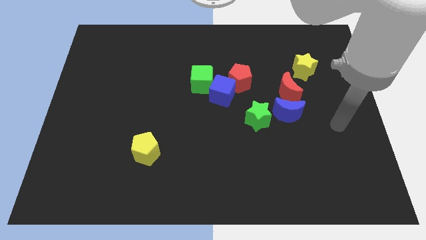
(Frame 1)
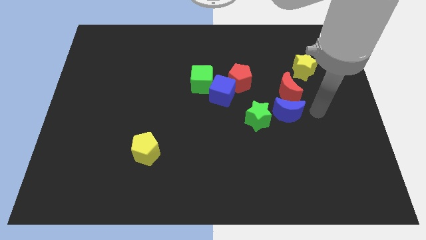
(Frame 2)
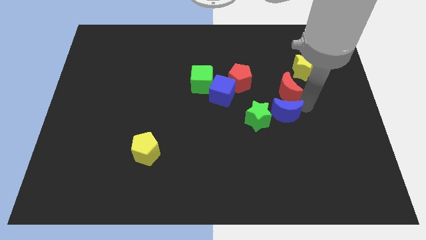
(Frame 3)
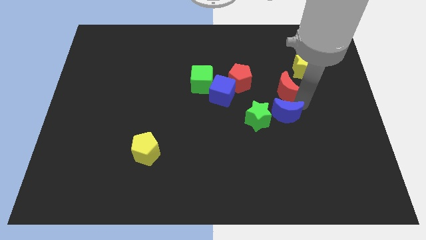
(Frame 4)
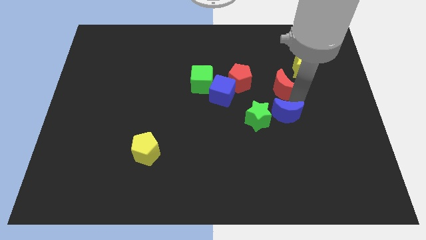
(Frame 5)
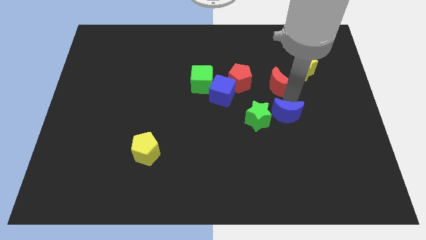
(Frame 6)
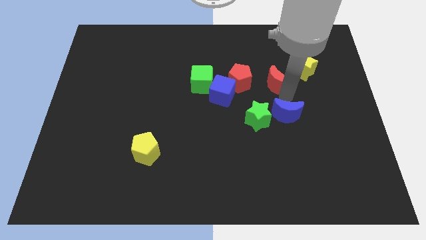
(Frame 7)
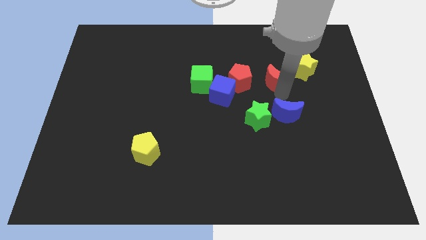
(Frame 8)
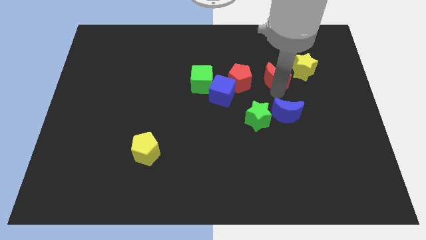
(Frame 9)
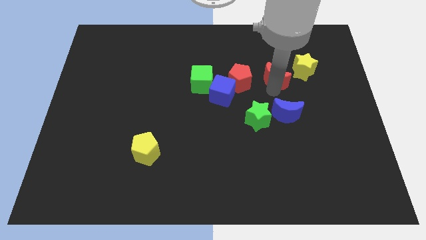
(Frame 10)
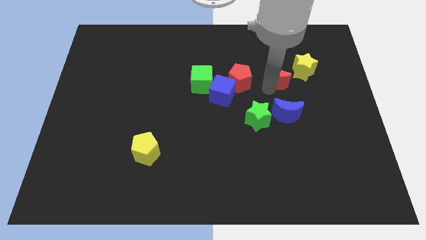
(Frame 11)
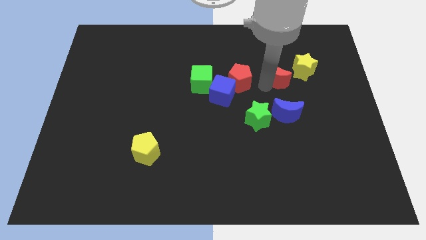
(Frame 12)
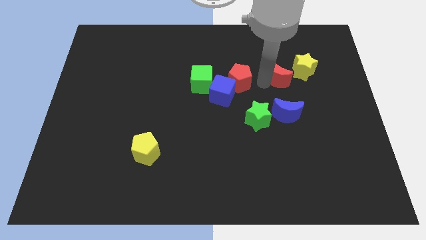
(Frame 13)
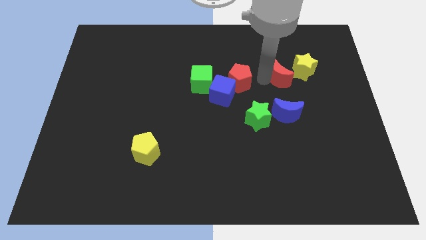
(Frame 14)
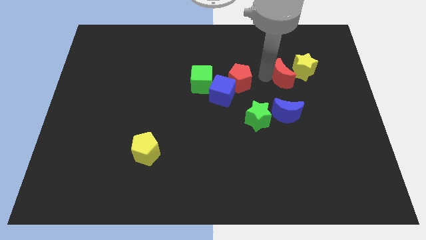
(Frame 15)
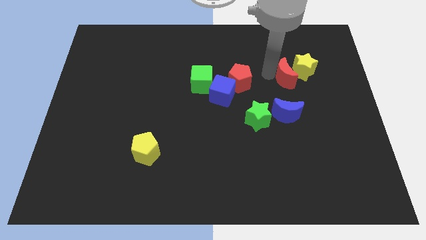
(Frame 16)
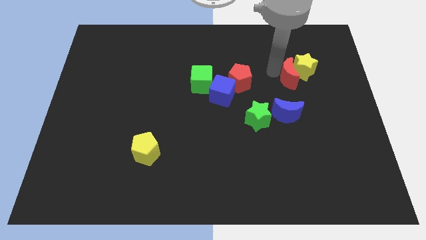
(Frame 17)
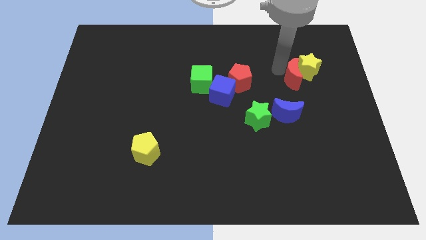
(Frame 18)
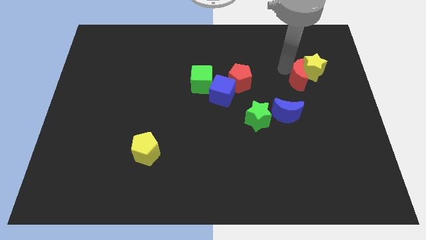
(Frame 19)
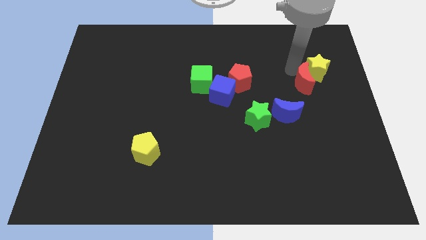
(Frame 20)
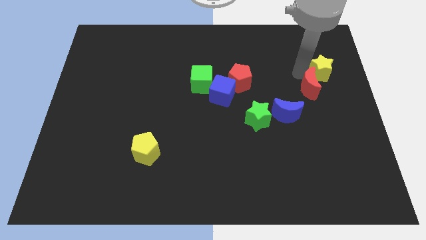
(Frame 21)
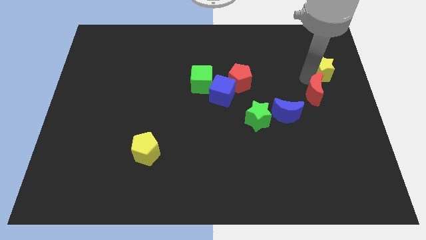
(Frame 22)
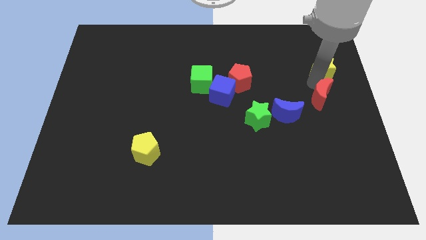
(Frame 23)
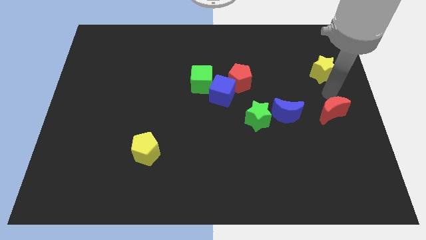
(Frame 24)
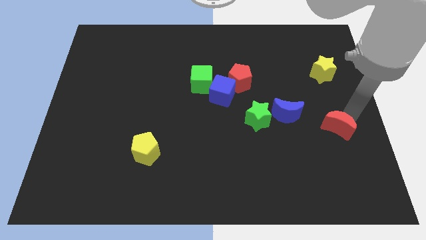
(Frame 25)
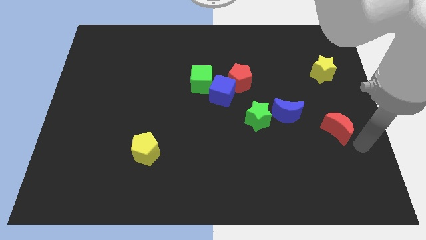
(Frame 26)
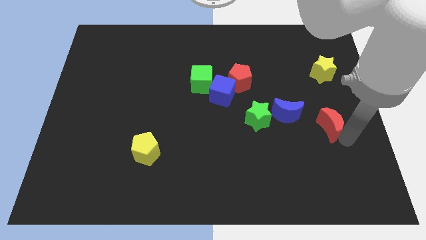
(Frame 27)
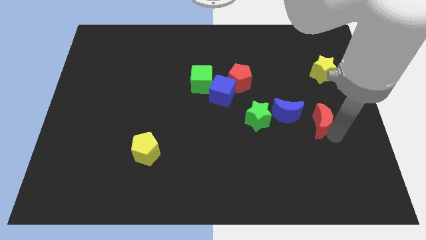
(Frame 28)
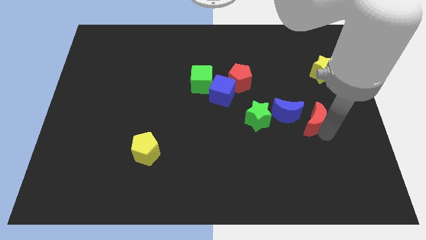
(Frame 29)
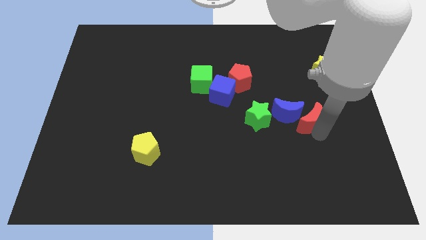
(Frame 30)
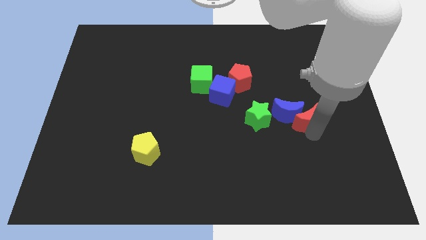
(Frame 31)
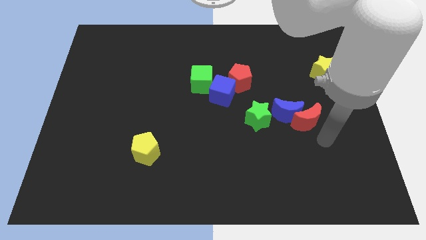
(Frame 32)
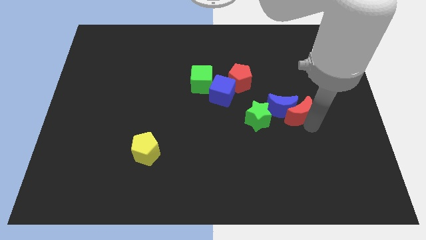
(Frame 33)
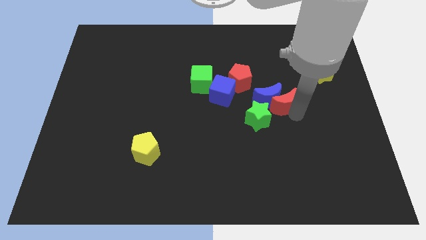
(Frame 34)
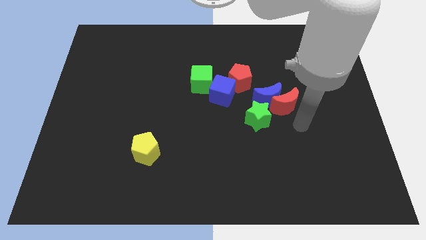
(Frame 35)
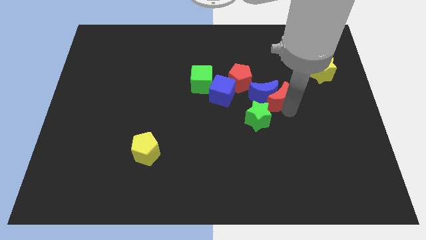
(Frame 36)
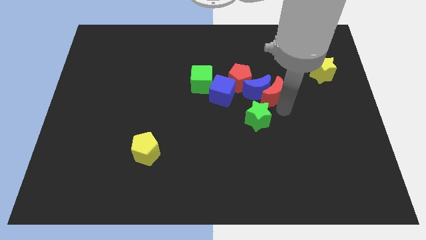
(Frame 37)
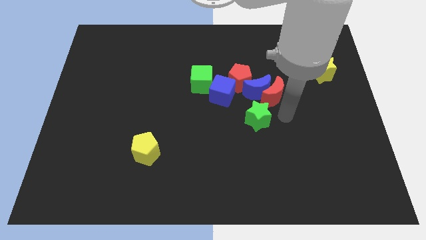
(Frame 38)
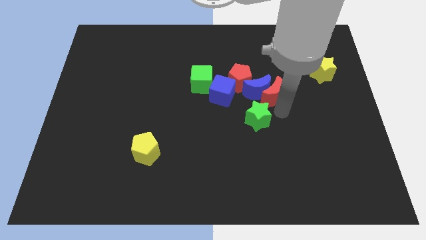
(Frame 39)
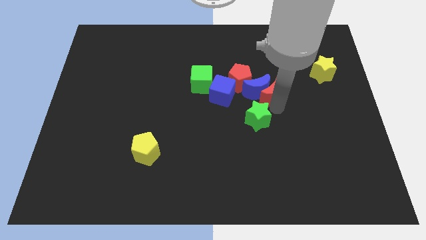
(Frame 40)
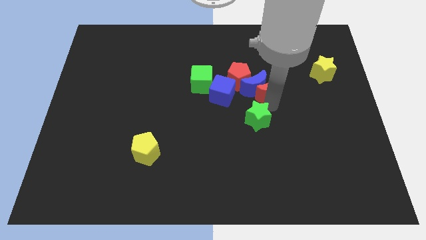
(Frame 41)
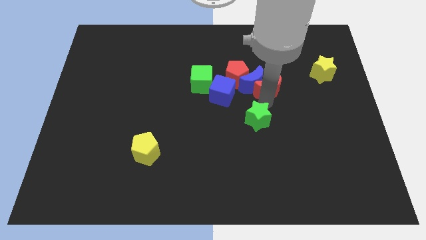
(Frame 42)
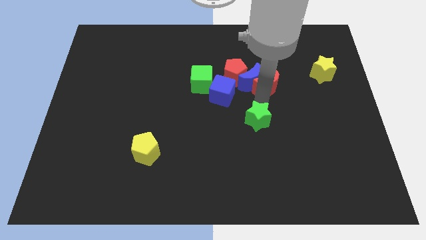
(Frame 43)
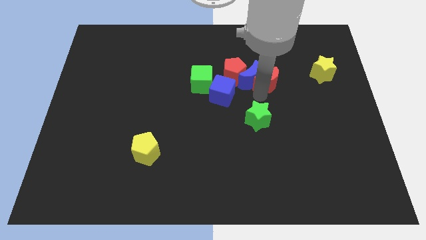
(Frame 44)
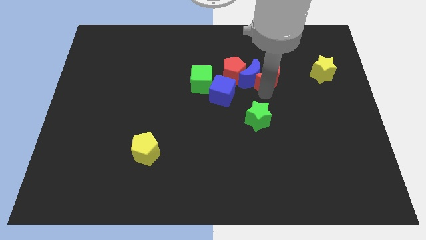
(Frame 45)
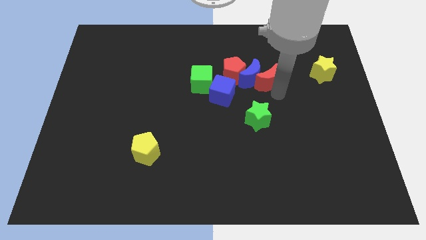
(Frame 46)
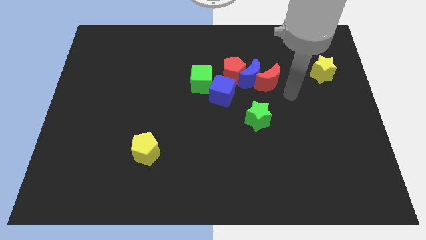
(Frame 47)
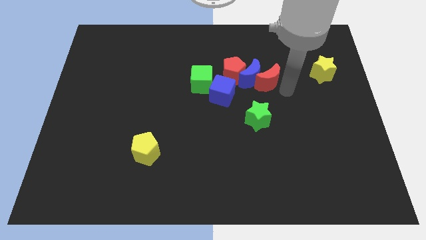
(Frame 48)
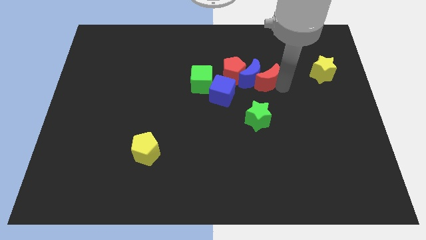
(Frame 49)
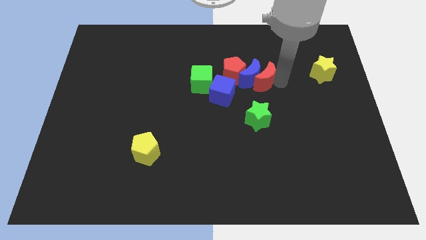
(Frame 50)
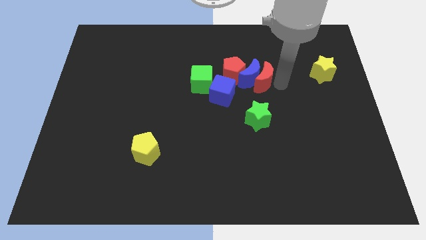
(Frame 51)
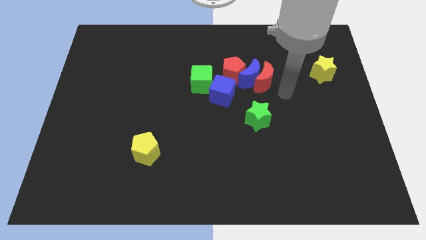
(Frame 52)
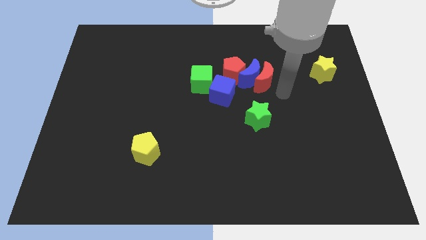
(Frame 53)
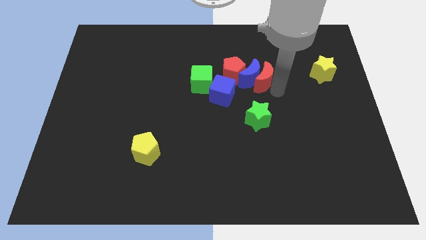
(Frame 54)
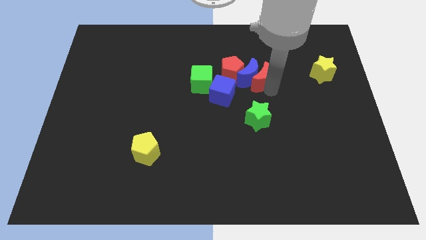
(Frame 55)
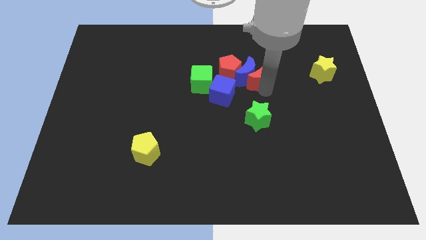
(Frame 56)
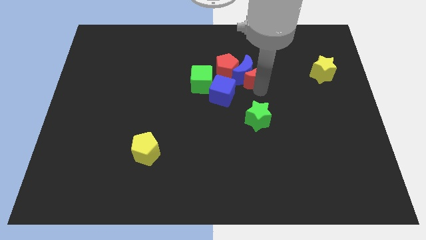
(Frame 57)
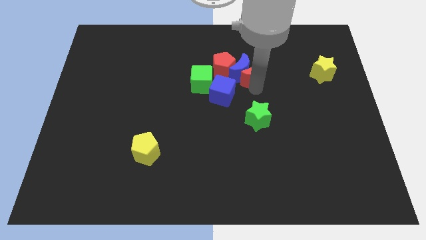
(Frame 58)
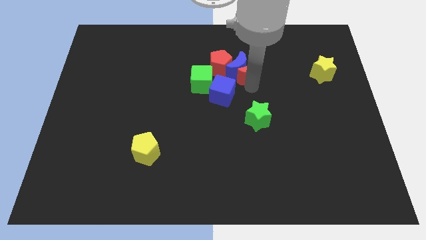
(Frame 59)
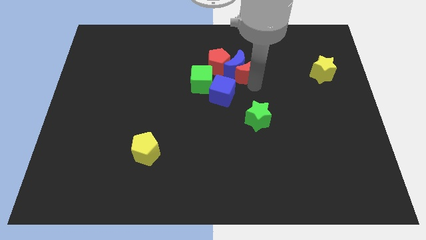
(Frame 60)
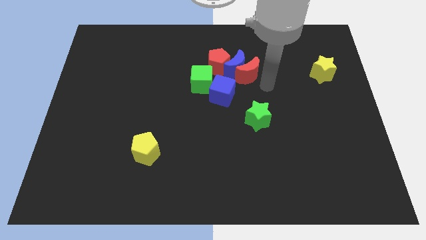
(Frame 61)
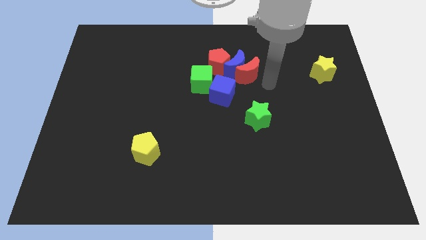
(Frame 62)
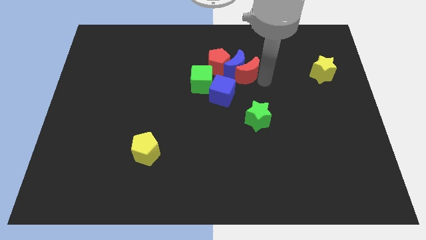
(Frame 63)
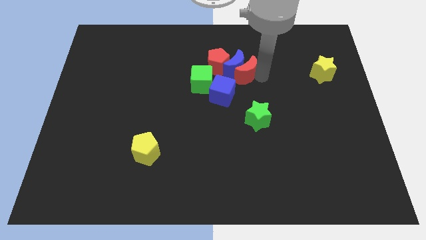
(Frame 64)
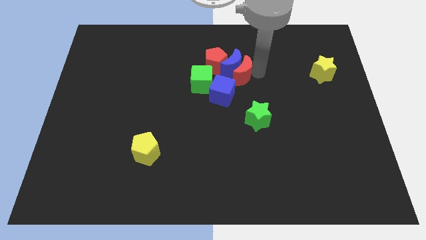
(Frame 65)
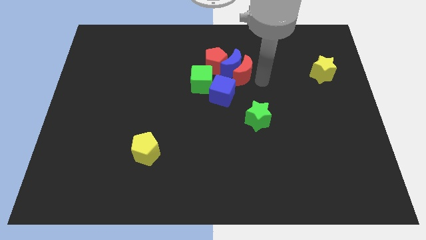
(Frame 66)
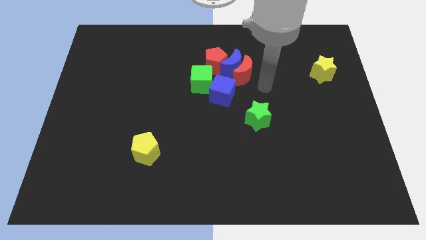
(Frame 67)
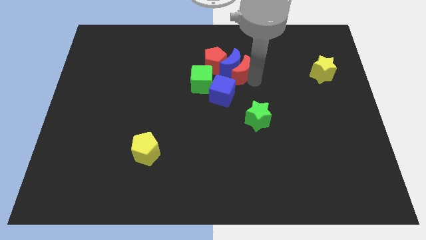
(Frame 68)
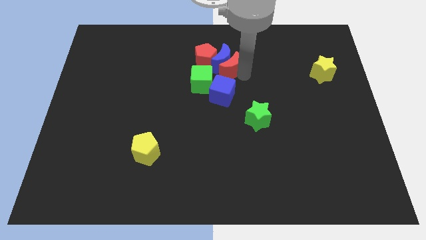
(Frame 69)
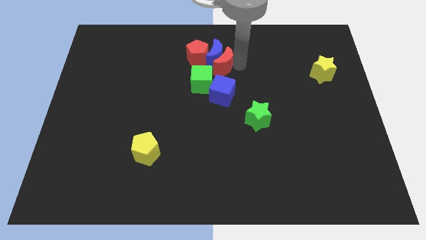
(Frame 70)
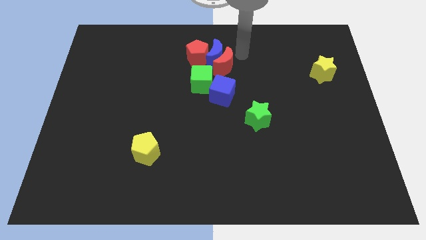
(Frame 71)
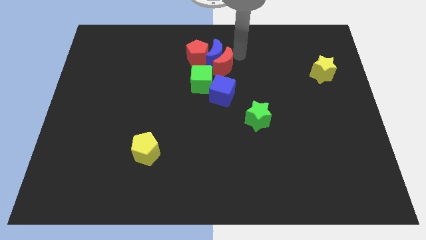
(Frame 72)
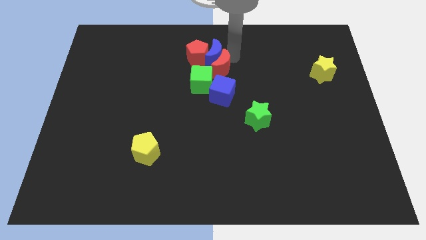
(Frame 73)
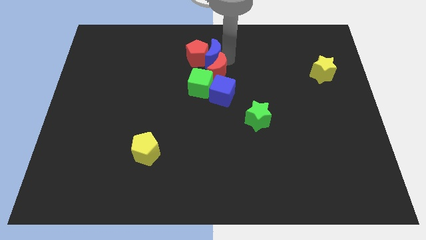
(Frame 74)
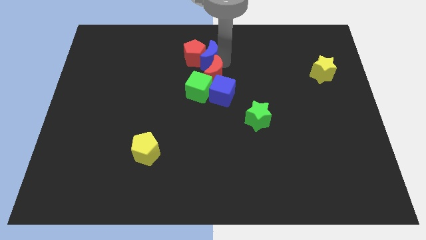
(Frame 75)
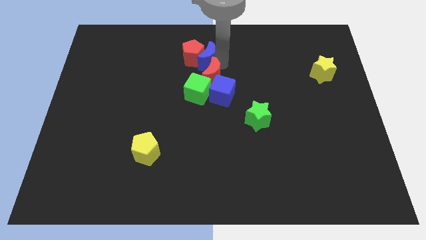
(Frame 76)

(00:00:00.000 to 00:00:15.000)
move the red moon towards the green cube
